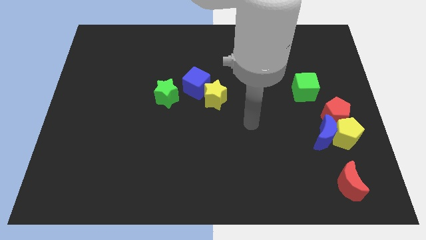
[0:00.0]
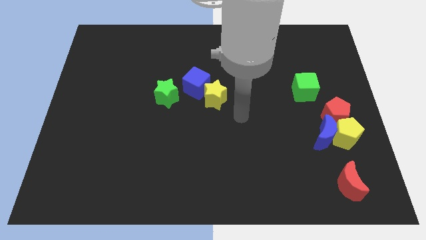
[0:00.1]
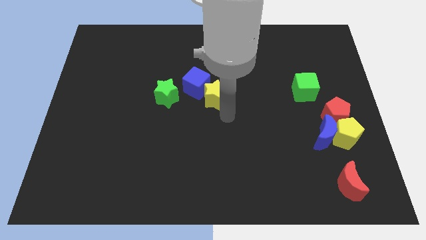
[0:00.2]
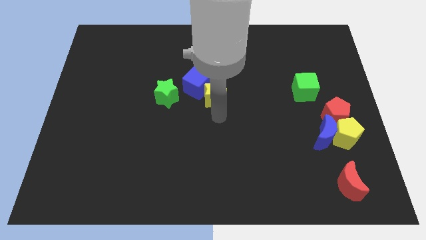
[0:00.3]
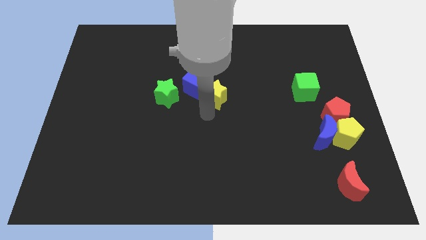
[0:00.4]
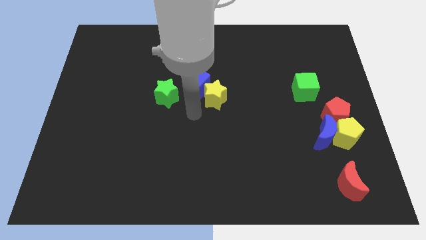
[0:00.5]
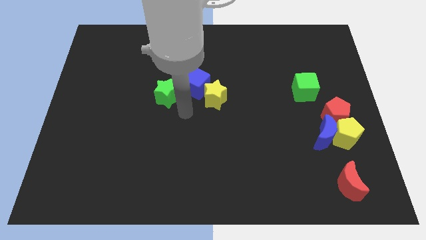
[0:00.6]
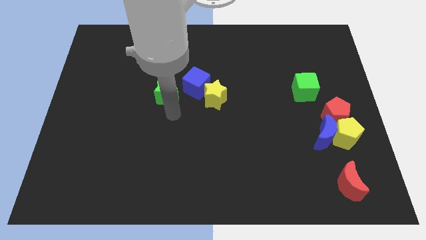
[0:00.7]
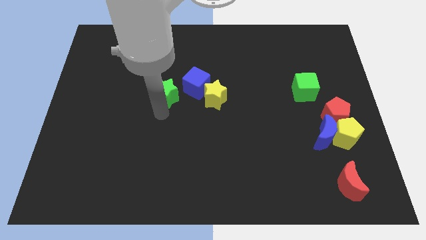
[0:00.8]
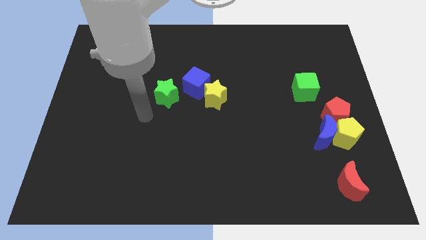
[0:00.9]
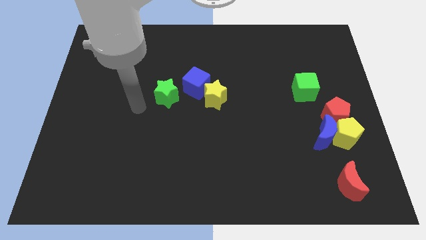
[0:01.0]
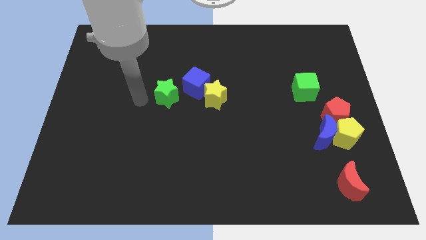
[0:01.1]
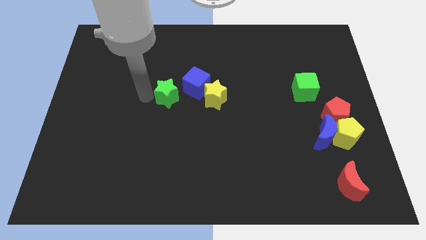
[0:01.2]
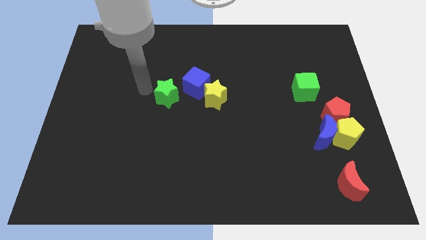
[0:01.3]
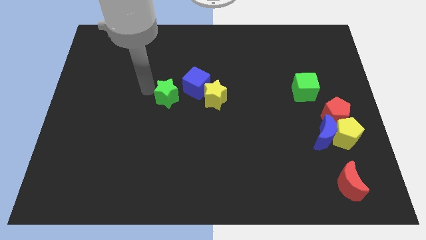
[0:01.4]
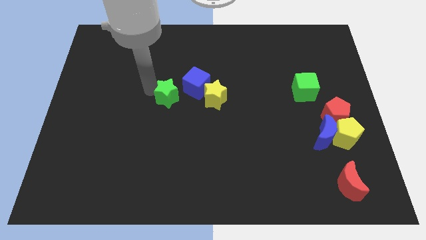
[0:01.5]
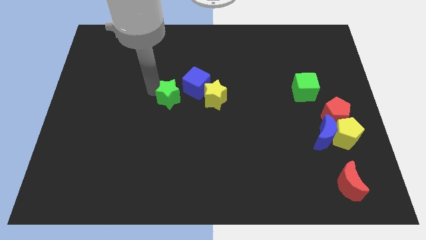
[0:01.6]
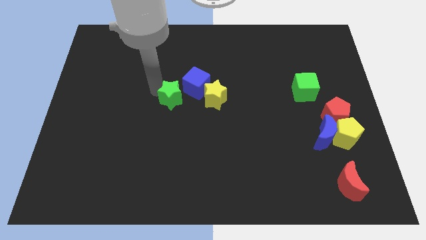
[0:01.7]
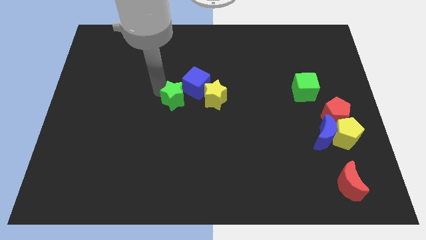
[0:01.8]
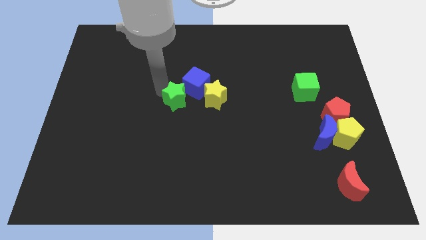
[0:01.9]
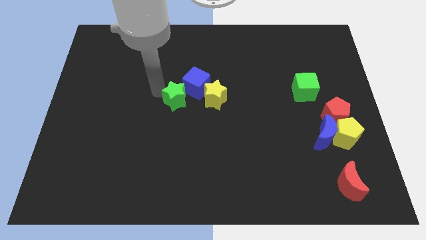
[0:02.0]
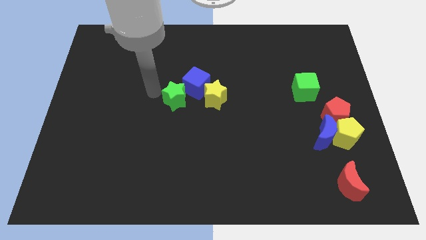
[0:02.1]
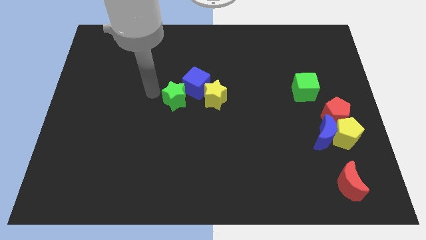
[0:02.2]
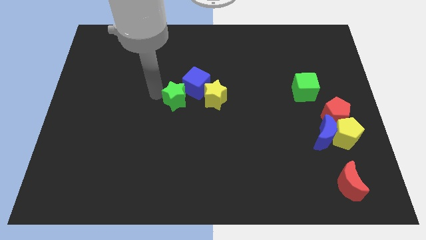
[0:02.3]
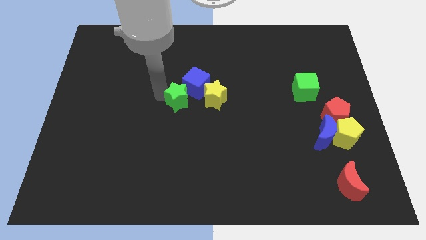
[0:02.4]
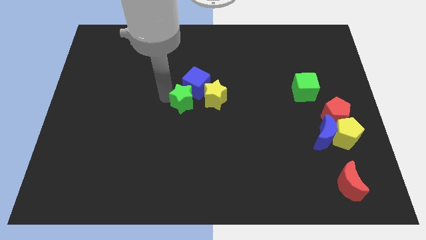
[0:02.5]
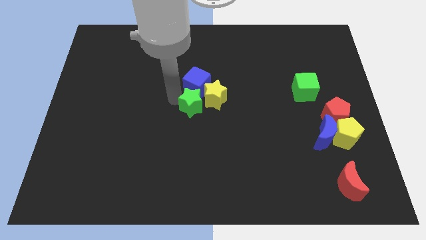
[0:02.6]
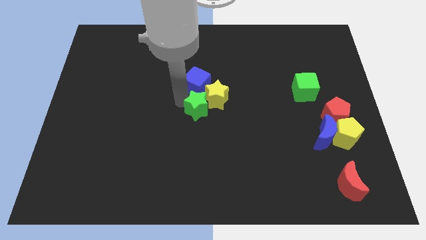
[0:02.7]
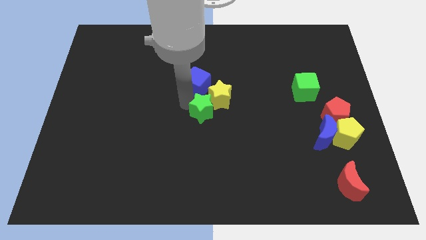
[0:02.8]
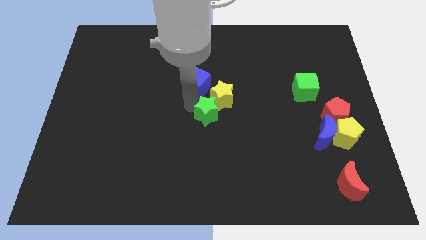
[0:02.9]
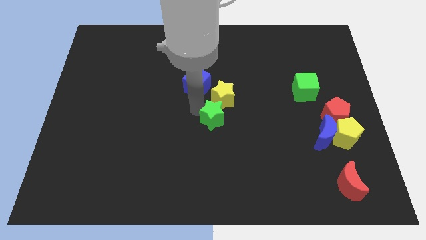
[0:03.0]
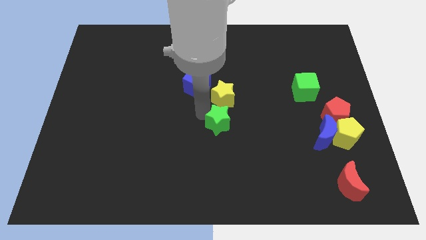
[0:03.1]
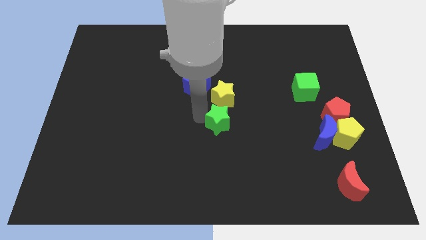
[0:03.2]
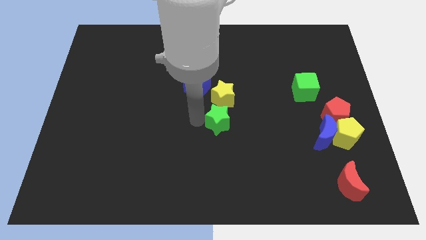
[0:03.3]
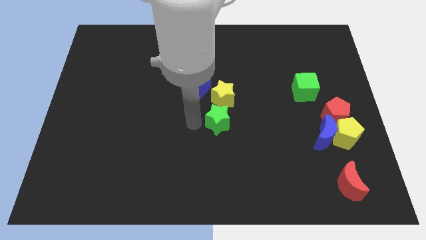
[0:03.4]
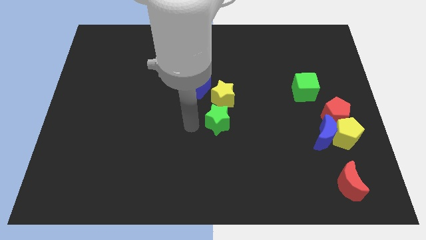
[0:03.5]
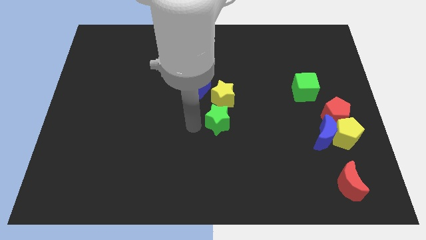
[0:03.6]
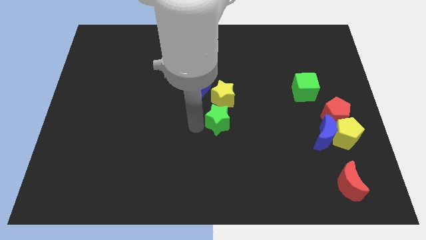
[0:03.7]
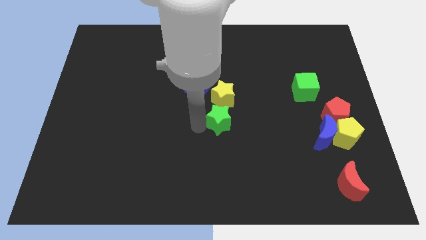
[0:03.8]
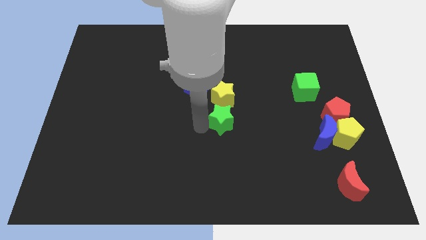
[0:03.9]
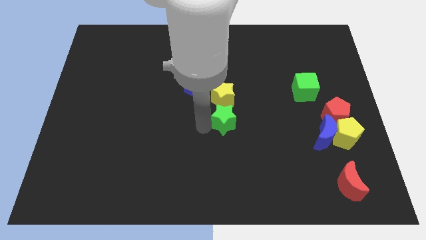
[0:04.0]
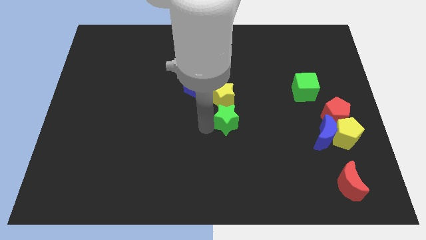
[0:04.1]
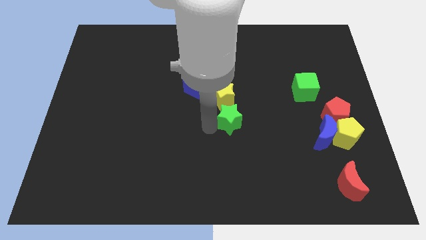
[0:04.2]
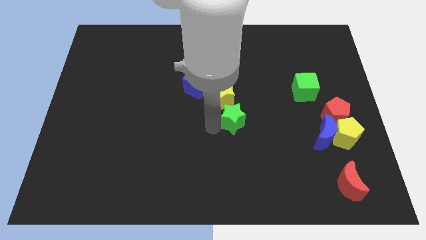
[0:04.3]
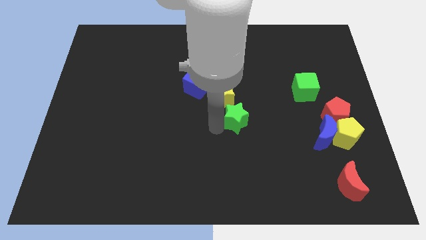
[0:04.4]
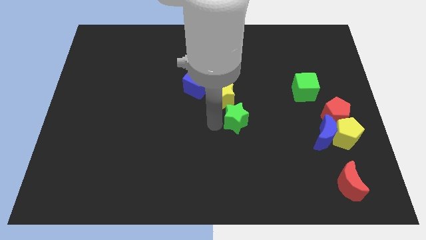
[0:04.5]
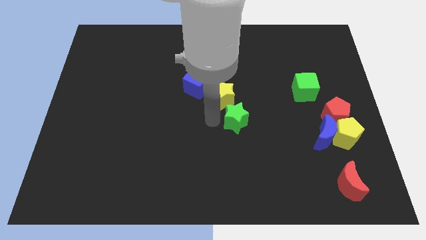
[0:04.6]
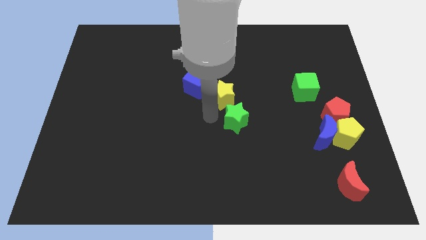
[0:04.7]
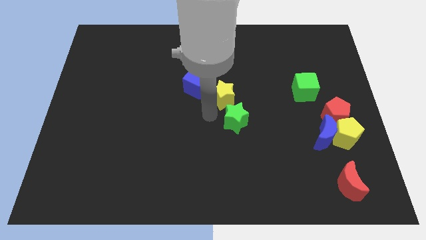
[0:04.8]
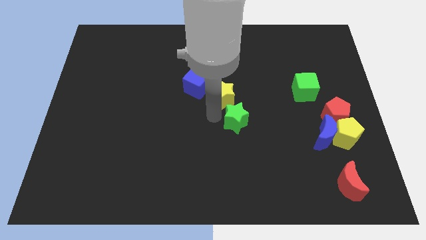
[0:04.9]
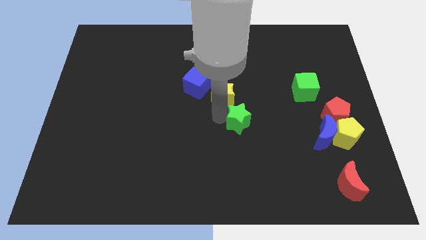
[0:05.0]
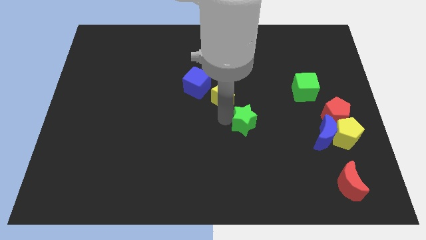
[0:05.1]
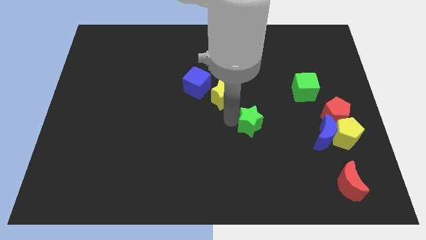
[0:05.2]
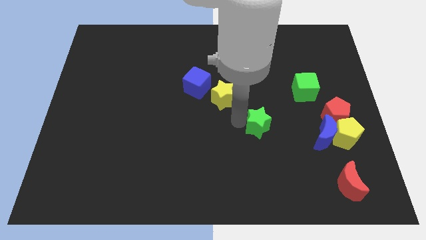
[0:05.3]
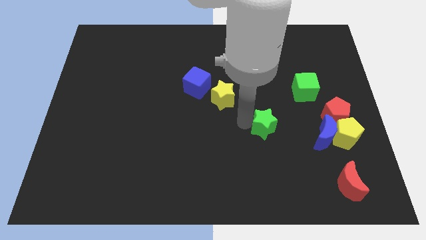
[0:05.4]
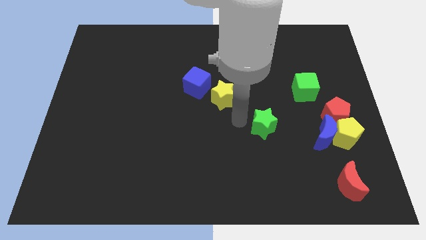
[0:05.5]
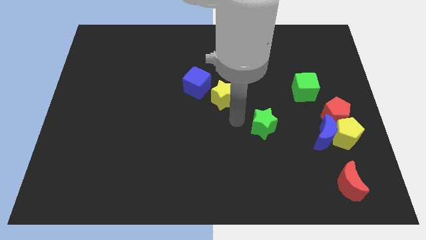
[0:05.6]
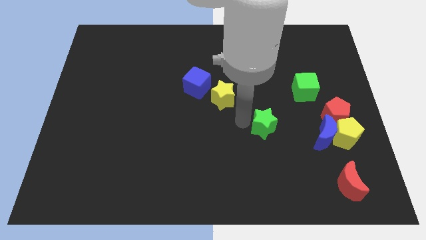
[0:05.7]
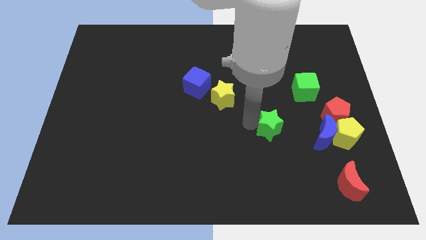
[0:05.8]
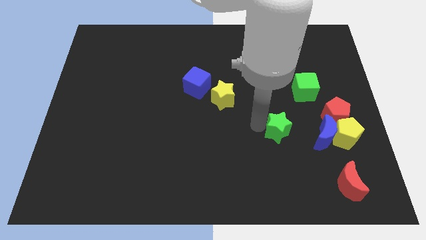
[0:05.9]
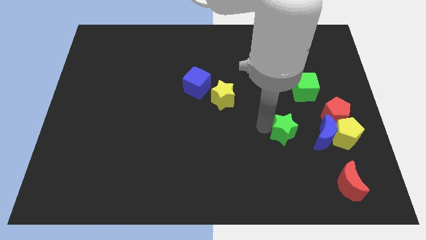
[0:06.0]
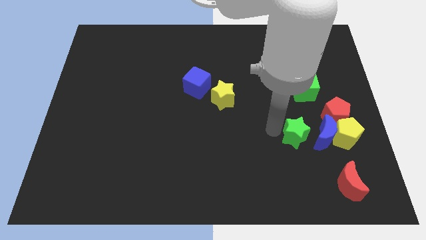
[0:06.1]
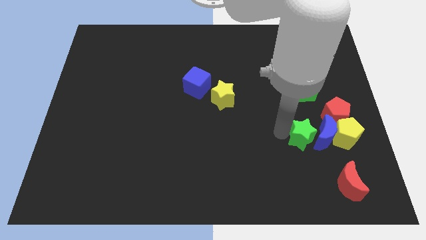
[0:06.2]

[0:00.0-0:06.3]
slide the green star towards the blue moon

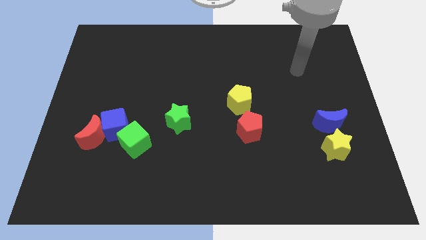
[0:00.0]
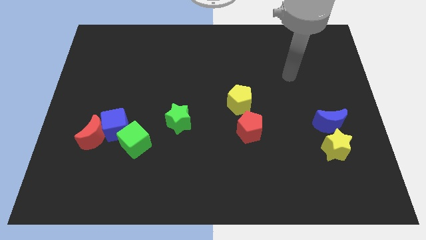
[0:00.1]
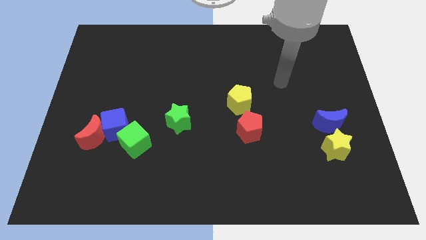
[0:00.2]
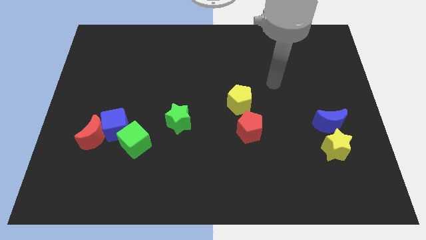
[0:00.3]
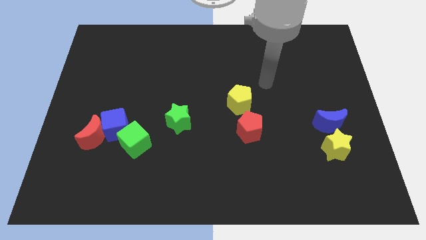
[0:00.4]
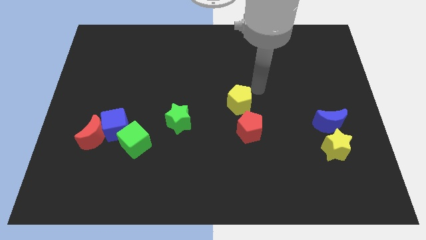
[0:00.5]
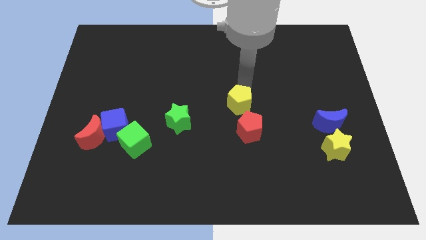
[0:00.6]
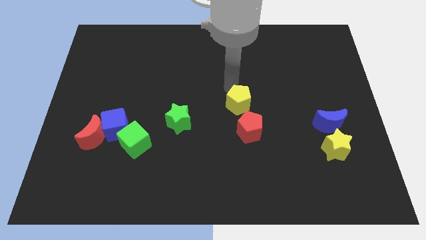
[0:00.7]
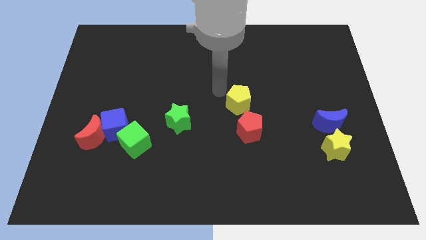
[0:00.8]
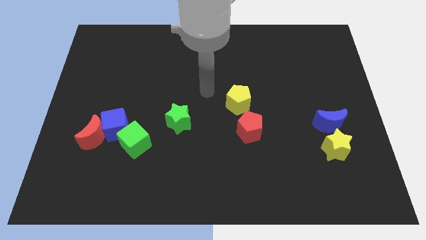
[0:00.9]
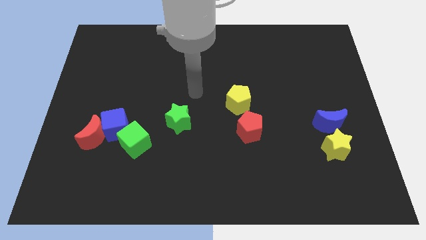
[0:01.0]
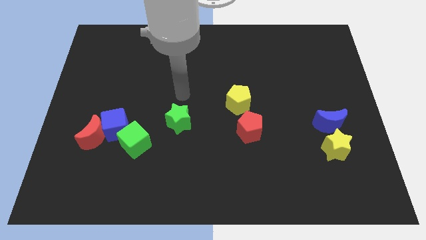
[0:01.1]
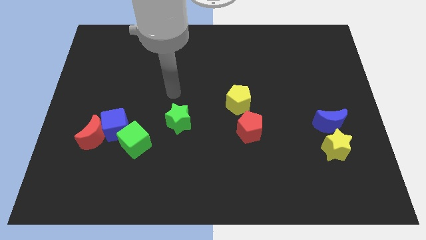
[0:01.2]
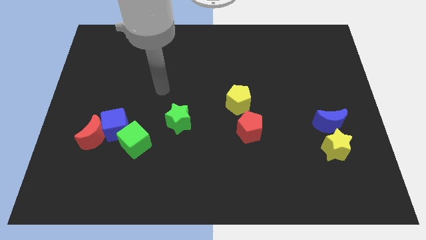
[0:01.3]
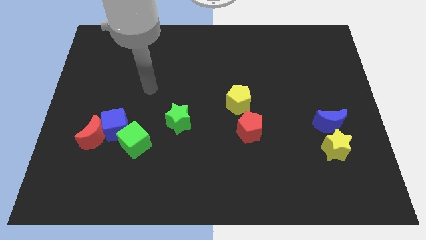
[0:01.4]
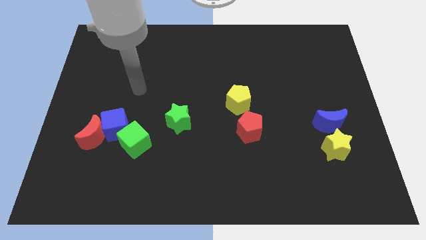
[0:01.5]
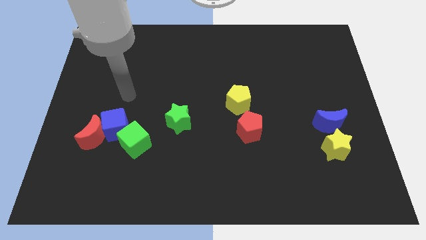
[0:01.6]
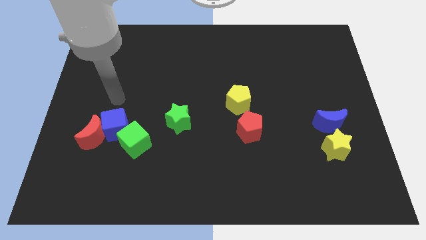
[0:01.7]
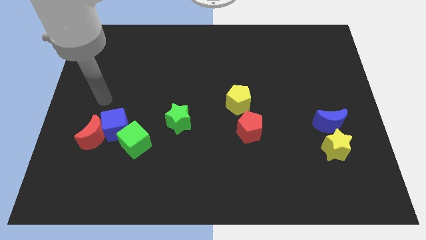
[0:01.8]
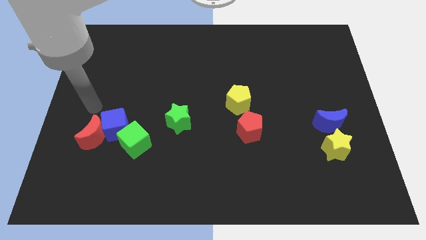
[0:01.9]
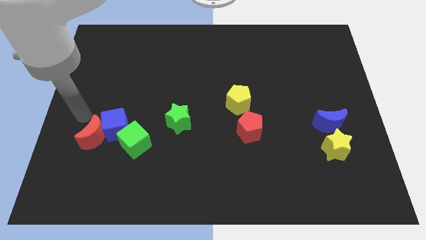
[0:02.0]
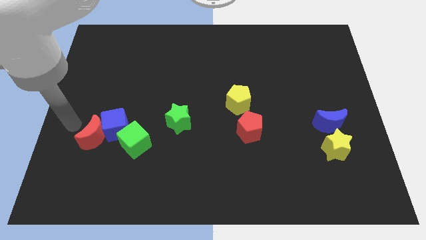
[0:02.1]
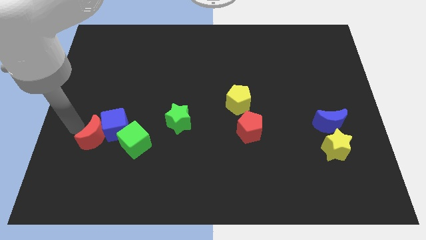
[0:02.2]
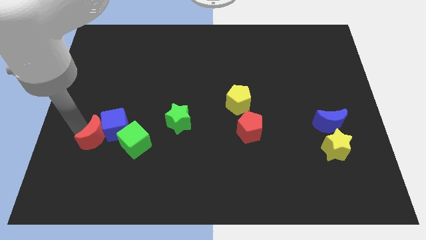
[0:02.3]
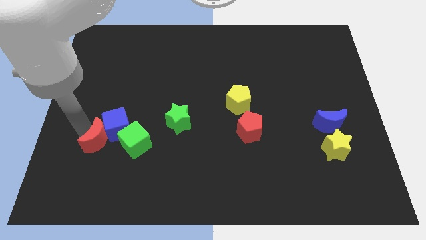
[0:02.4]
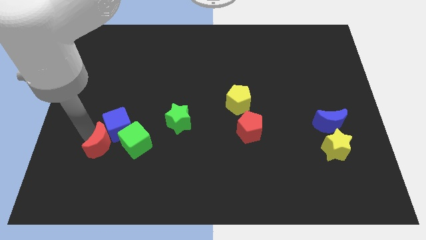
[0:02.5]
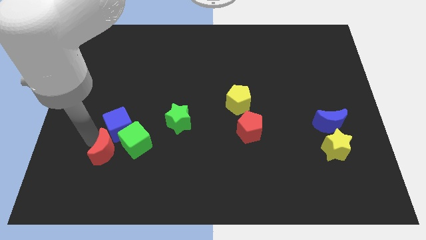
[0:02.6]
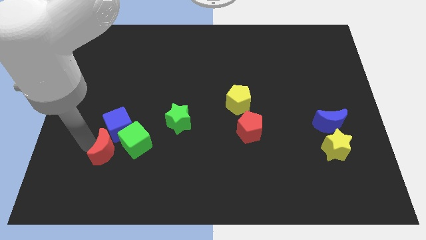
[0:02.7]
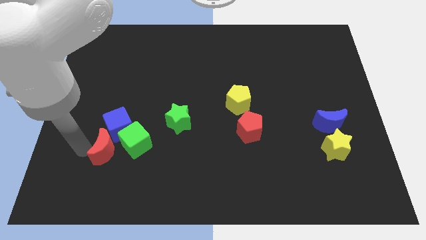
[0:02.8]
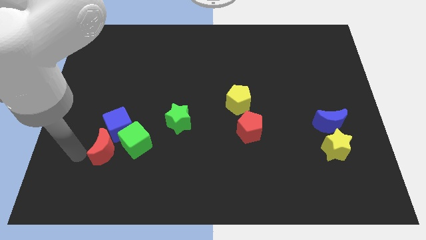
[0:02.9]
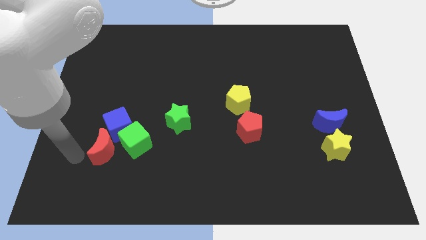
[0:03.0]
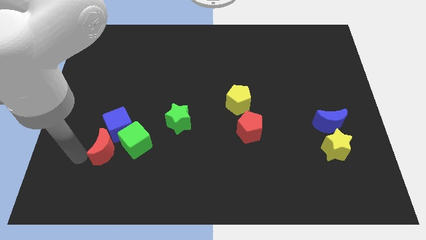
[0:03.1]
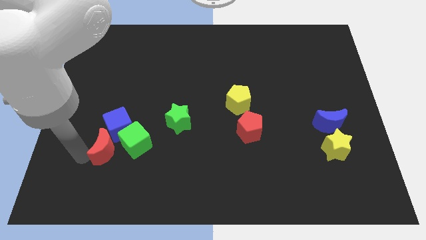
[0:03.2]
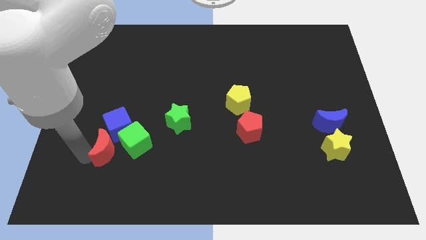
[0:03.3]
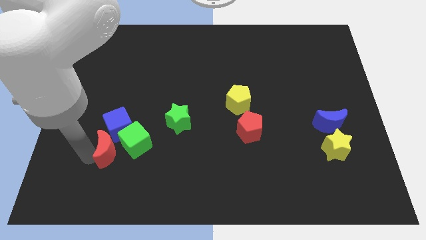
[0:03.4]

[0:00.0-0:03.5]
slide the red moon to the green cube
